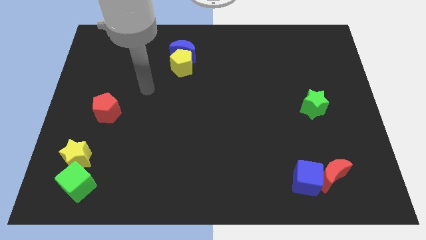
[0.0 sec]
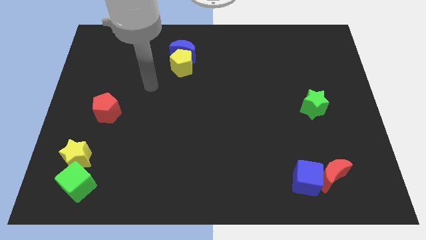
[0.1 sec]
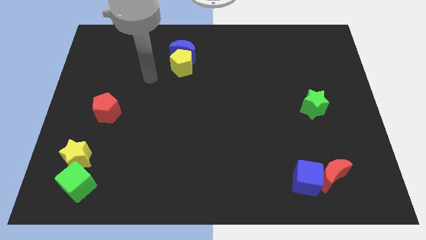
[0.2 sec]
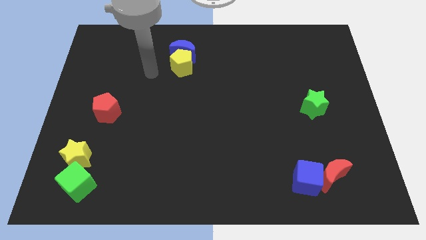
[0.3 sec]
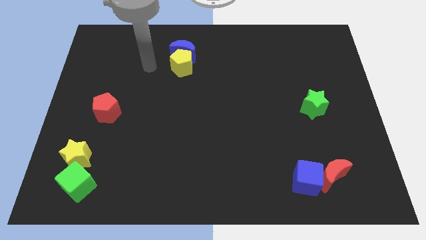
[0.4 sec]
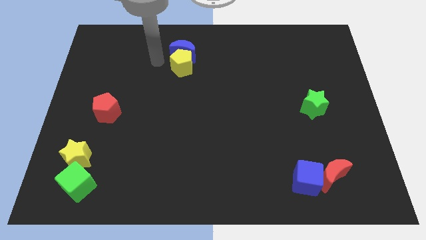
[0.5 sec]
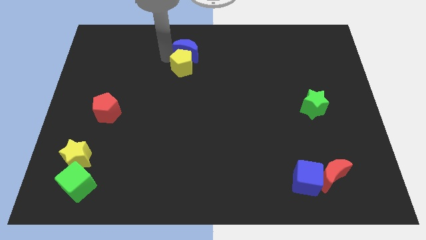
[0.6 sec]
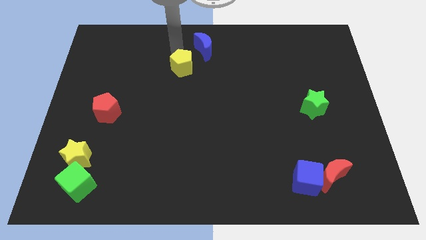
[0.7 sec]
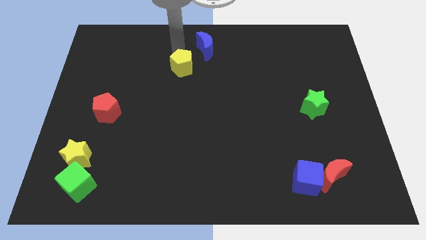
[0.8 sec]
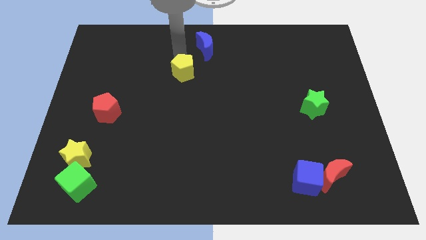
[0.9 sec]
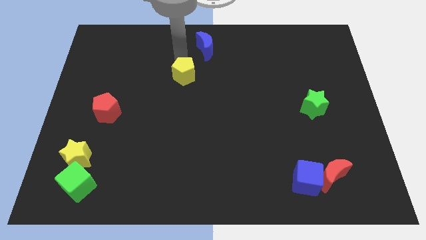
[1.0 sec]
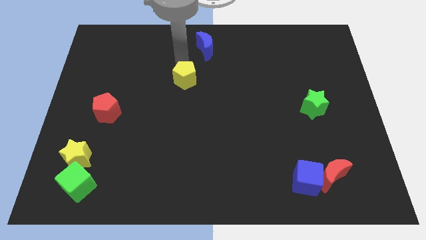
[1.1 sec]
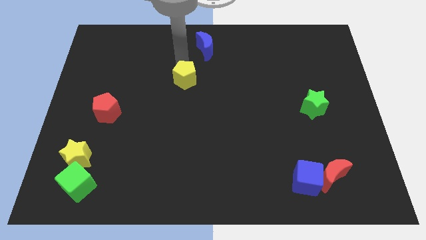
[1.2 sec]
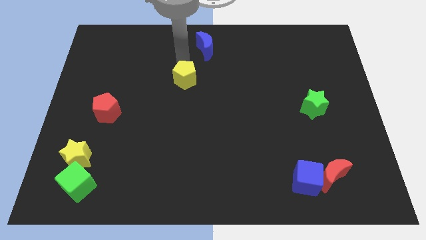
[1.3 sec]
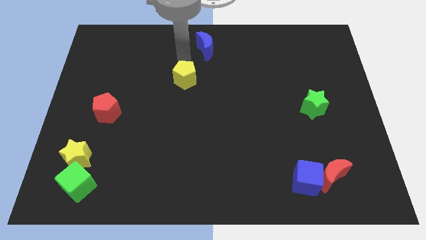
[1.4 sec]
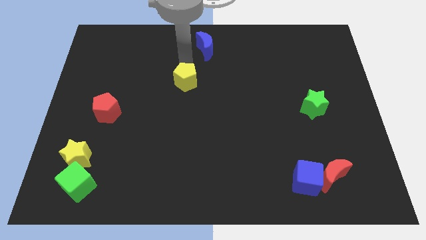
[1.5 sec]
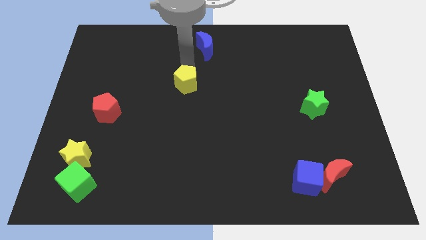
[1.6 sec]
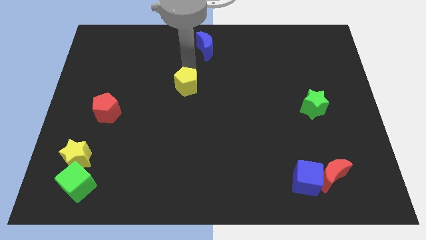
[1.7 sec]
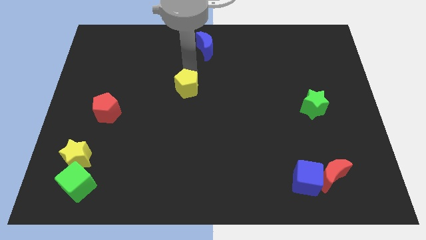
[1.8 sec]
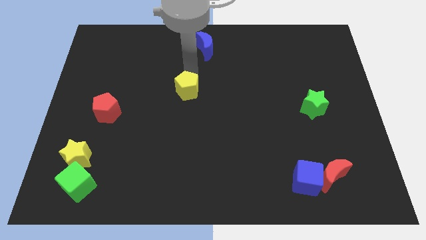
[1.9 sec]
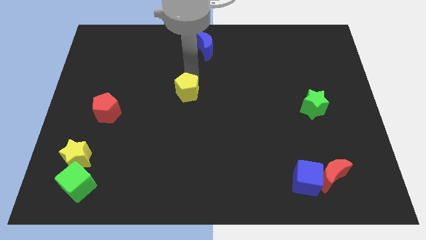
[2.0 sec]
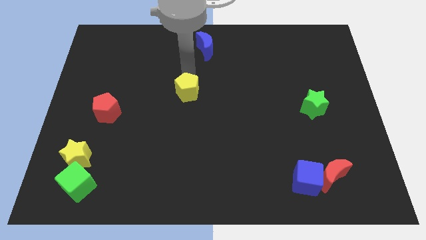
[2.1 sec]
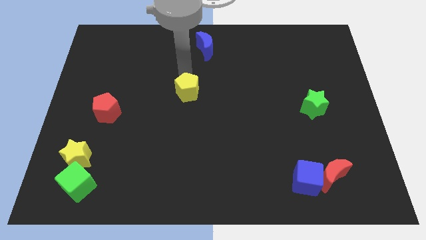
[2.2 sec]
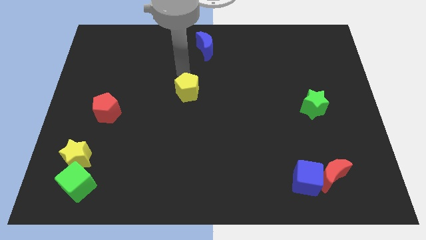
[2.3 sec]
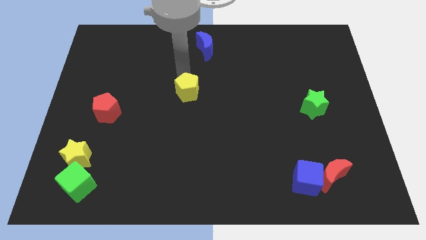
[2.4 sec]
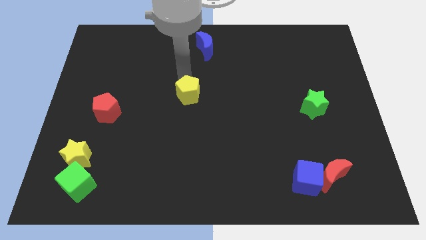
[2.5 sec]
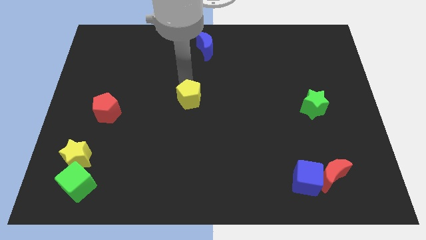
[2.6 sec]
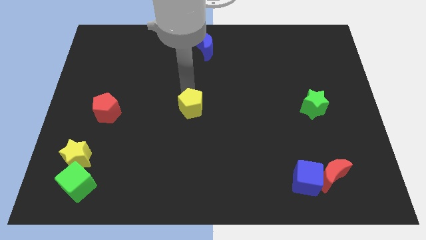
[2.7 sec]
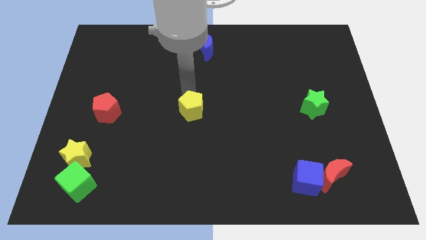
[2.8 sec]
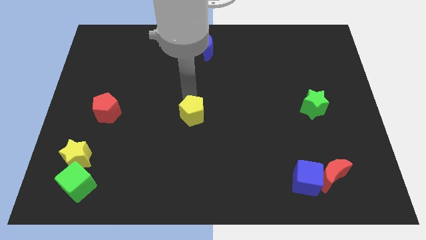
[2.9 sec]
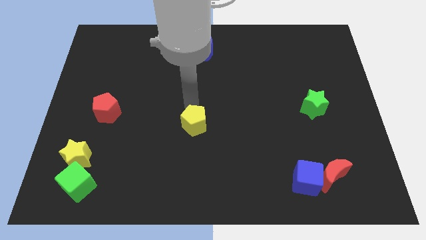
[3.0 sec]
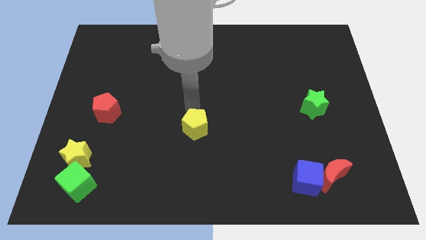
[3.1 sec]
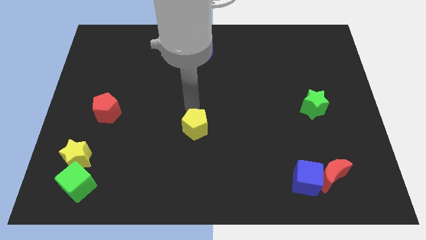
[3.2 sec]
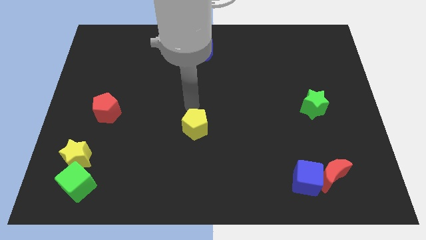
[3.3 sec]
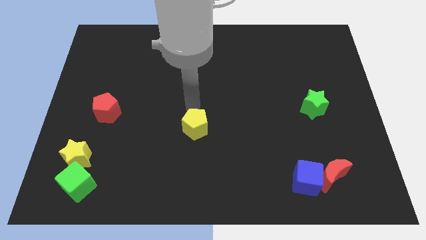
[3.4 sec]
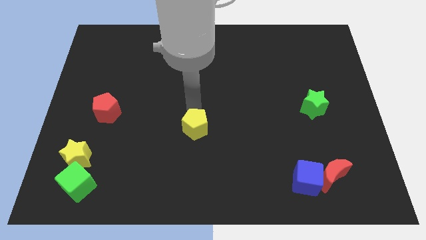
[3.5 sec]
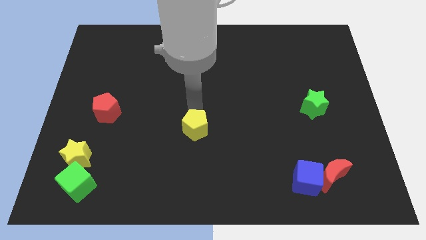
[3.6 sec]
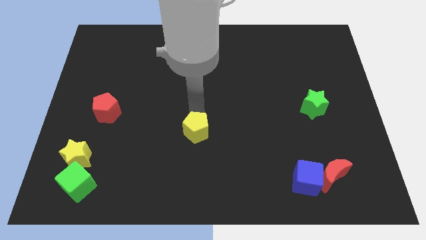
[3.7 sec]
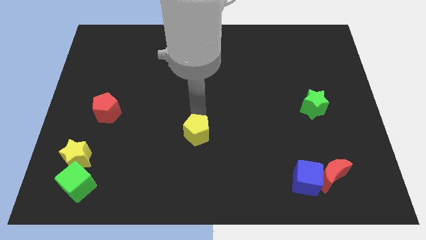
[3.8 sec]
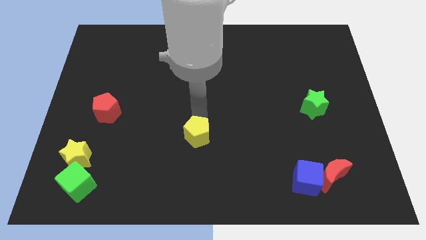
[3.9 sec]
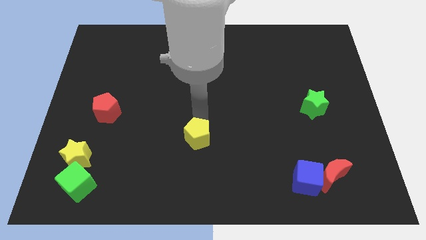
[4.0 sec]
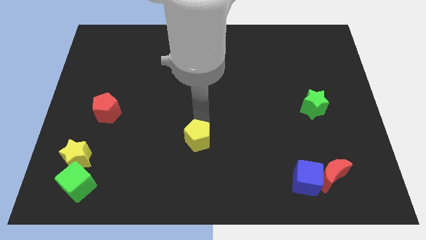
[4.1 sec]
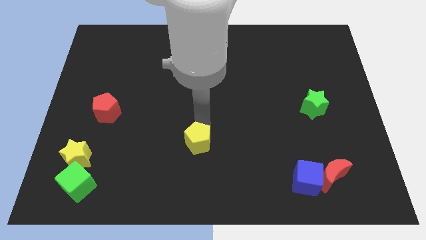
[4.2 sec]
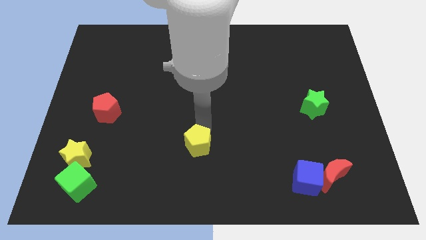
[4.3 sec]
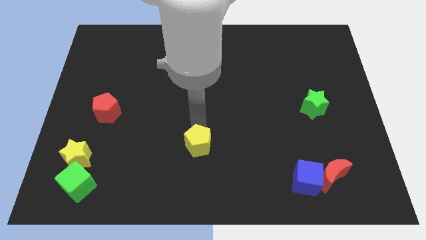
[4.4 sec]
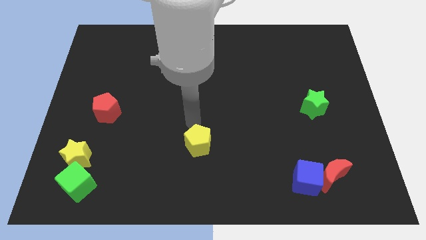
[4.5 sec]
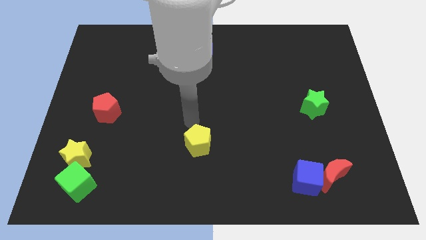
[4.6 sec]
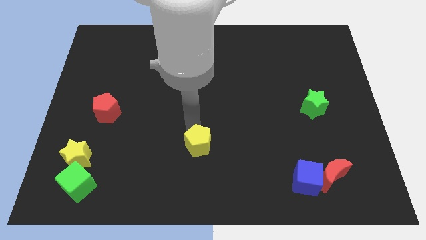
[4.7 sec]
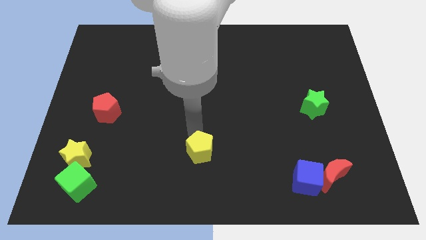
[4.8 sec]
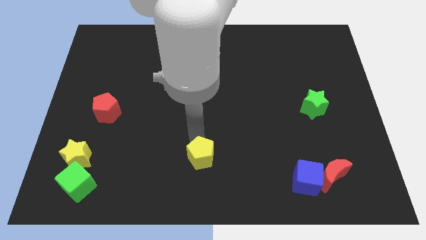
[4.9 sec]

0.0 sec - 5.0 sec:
move the yellow pentagon to the bottom

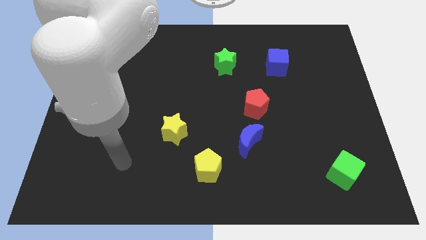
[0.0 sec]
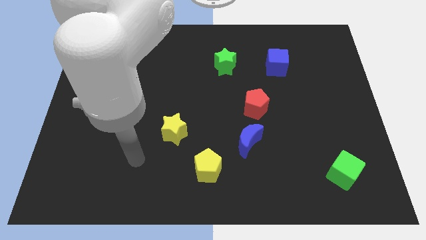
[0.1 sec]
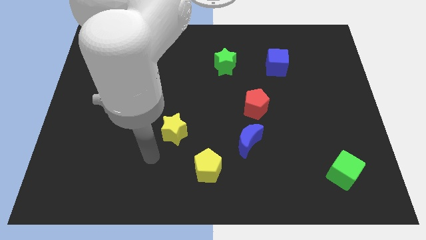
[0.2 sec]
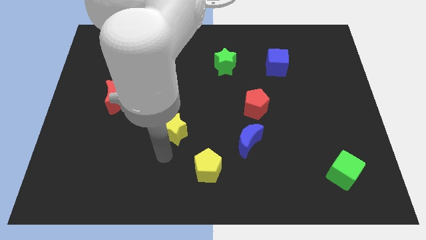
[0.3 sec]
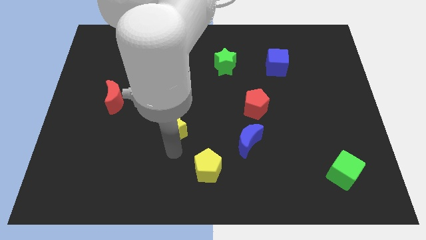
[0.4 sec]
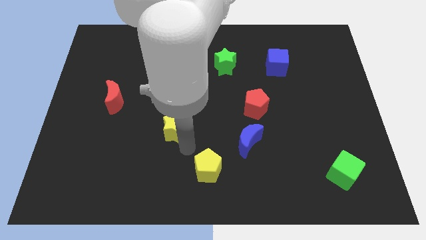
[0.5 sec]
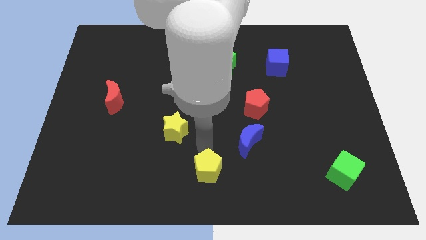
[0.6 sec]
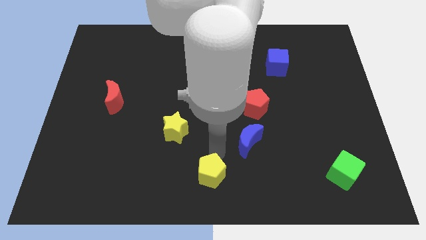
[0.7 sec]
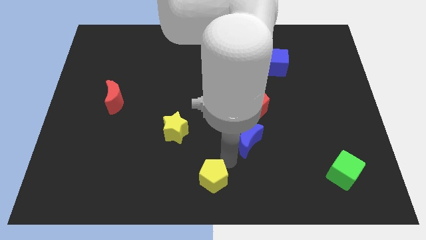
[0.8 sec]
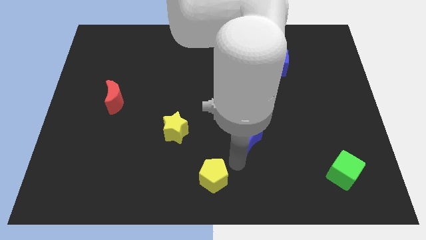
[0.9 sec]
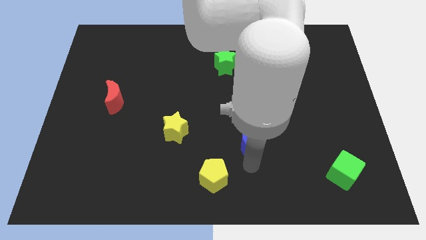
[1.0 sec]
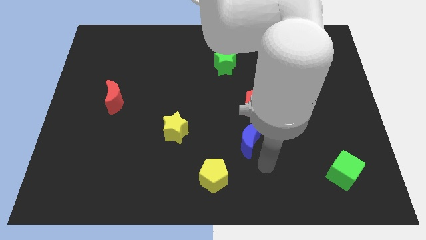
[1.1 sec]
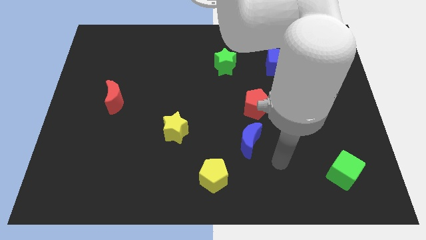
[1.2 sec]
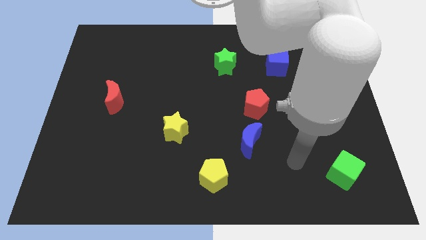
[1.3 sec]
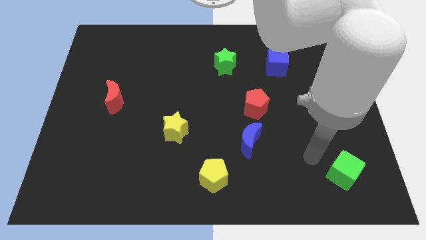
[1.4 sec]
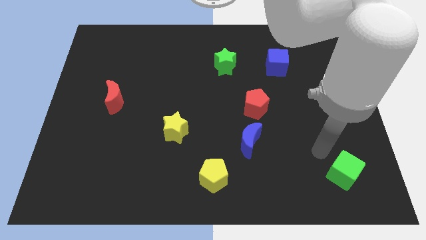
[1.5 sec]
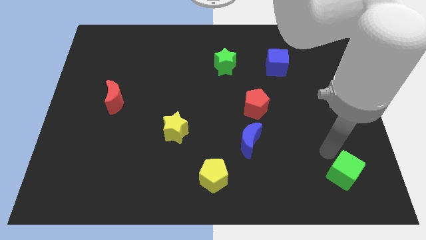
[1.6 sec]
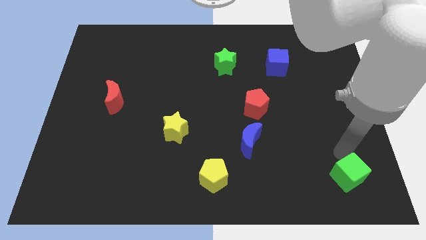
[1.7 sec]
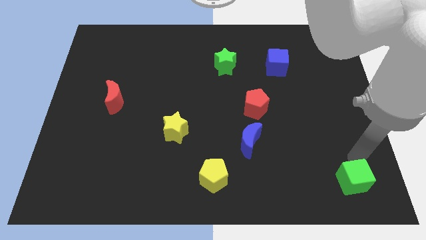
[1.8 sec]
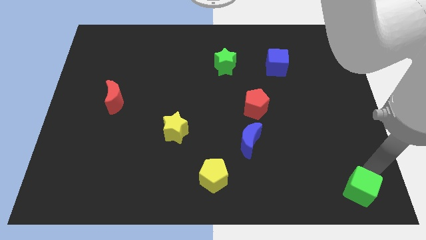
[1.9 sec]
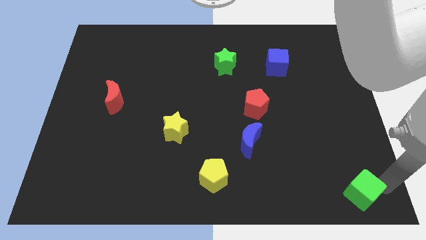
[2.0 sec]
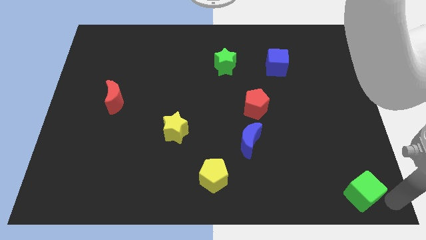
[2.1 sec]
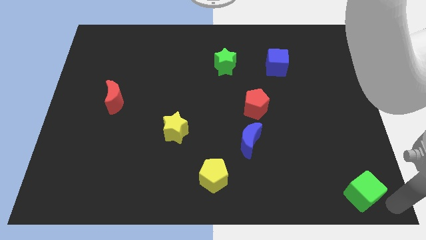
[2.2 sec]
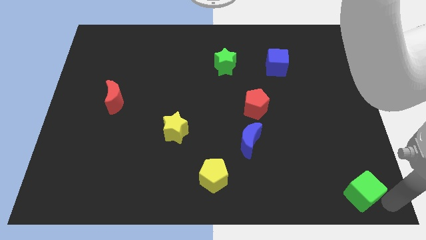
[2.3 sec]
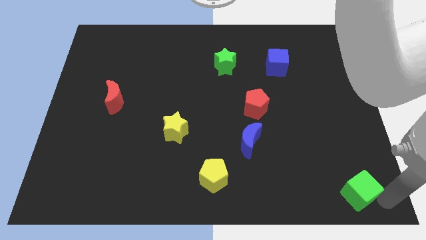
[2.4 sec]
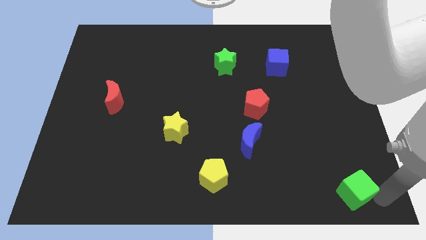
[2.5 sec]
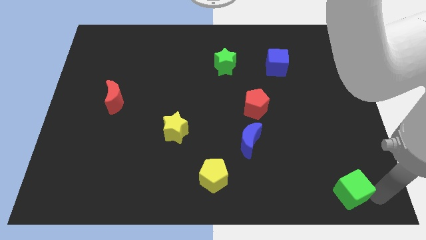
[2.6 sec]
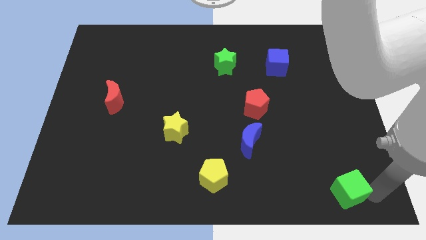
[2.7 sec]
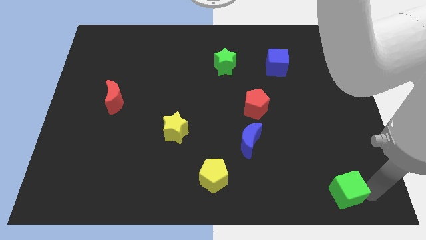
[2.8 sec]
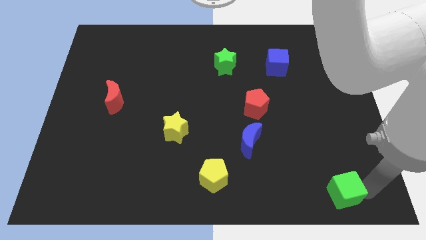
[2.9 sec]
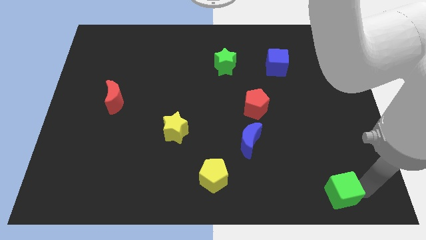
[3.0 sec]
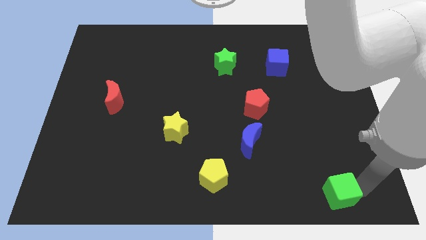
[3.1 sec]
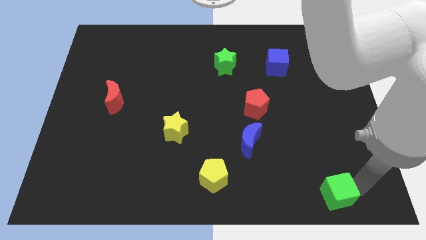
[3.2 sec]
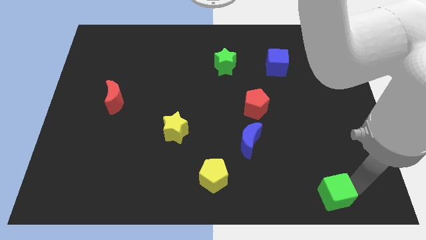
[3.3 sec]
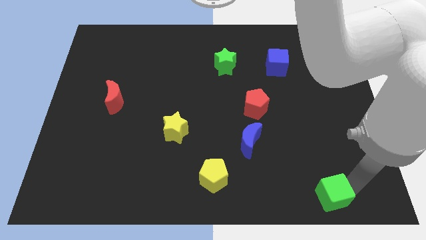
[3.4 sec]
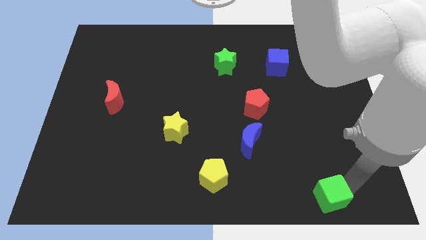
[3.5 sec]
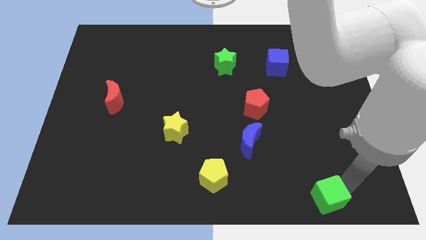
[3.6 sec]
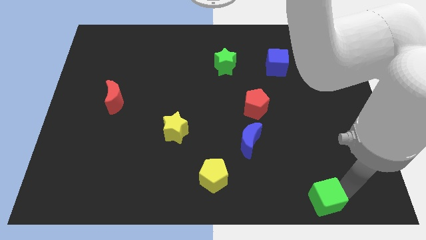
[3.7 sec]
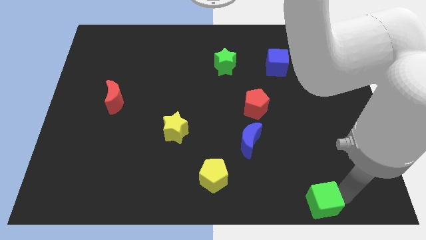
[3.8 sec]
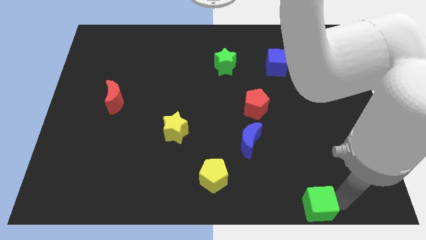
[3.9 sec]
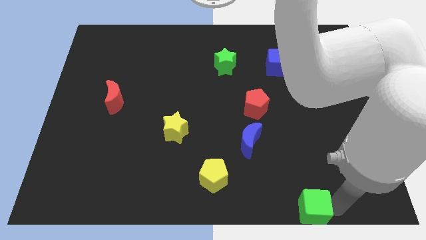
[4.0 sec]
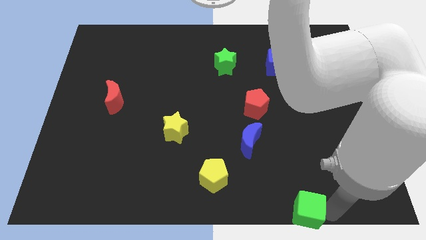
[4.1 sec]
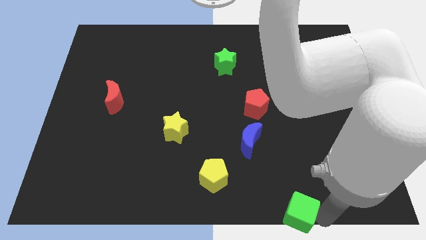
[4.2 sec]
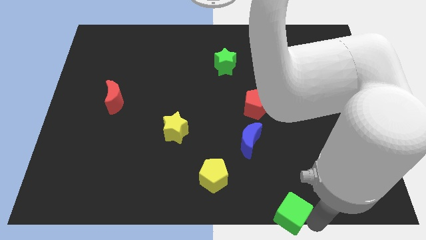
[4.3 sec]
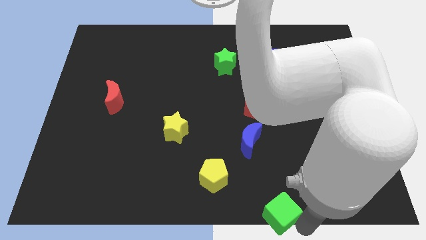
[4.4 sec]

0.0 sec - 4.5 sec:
put the green cube to the bottom
